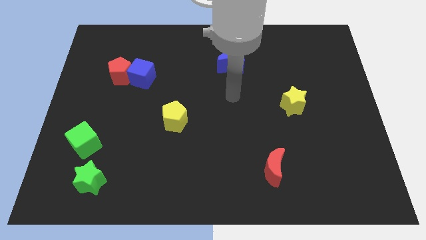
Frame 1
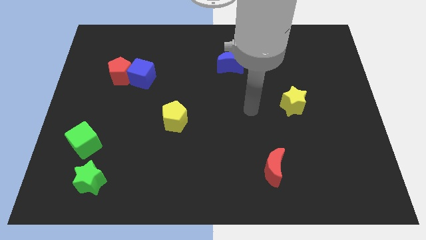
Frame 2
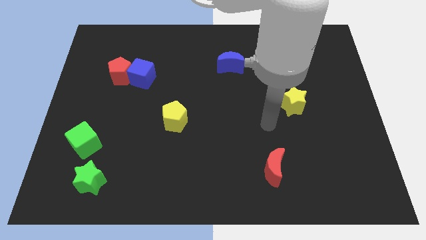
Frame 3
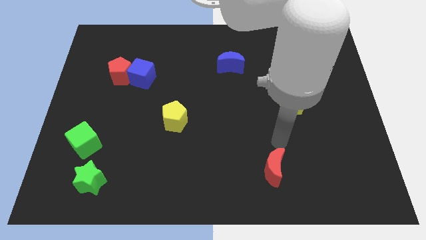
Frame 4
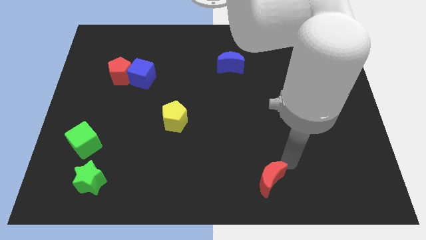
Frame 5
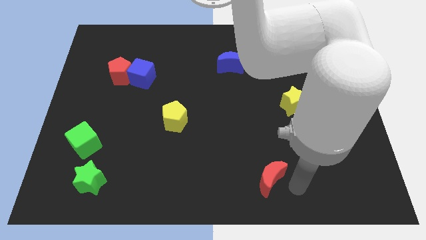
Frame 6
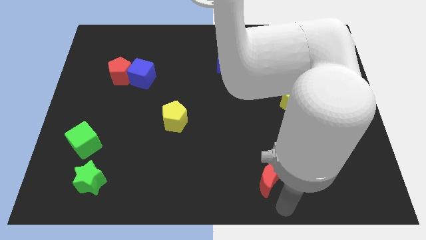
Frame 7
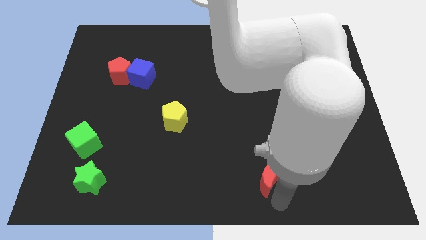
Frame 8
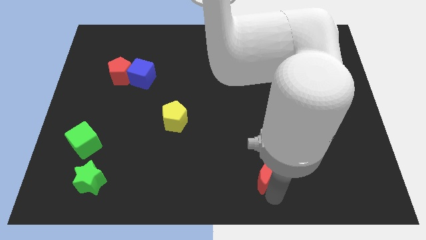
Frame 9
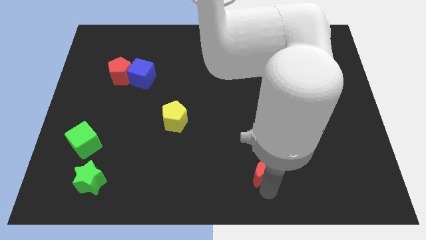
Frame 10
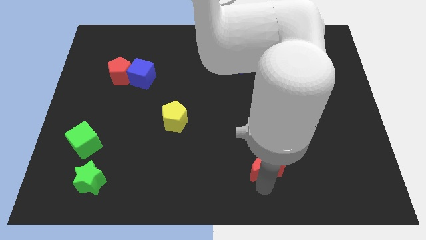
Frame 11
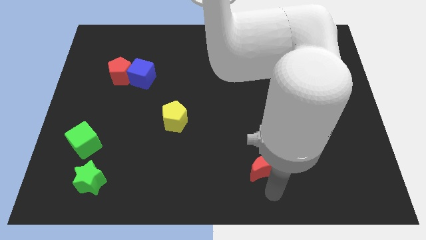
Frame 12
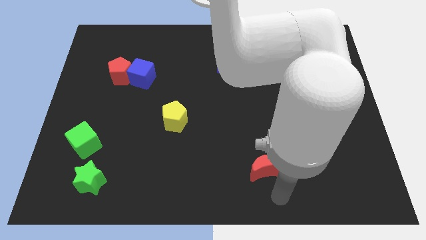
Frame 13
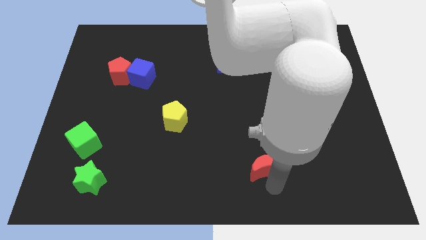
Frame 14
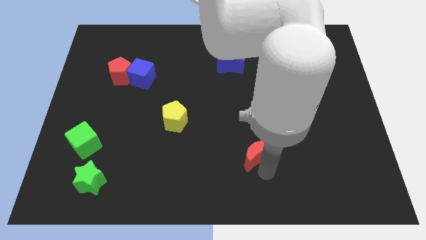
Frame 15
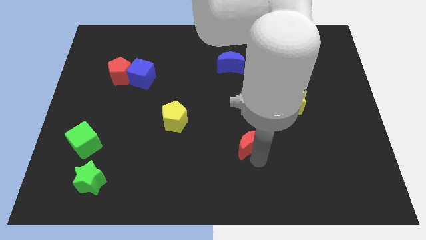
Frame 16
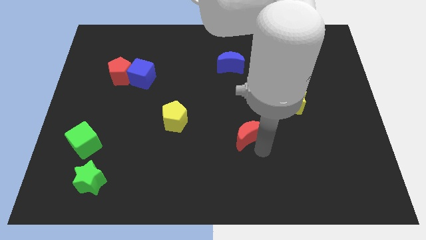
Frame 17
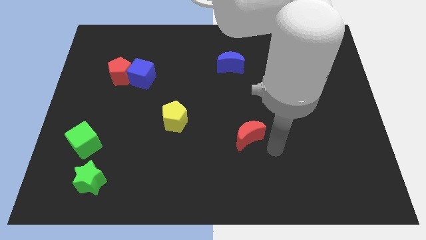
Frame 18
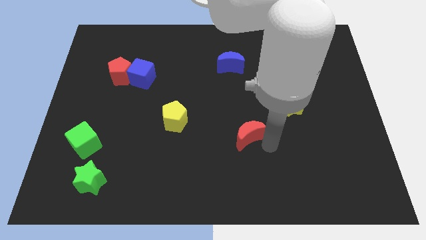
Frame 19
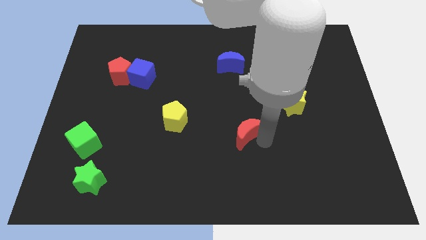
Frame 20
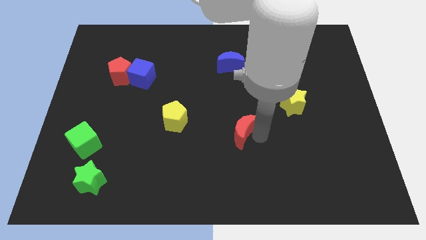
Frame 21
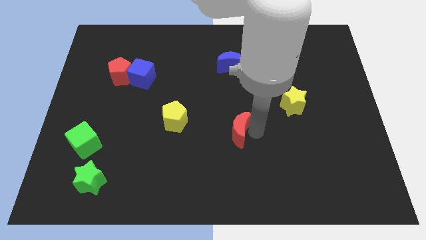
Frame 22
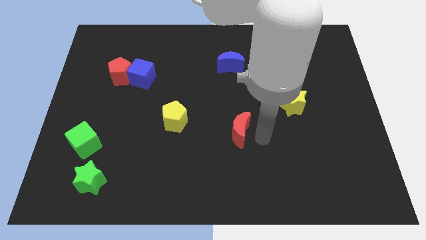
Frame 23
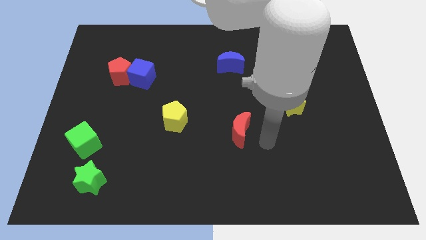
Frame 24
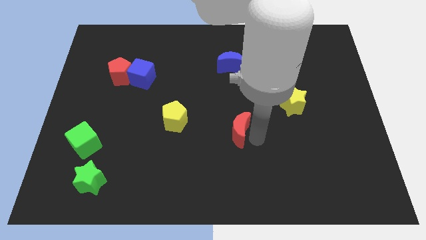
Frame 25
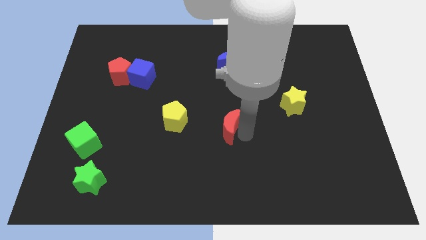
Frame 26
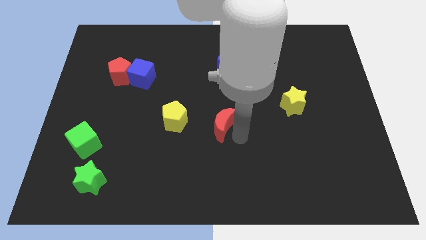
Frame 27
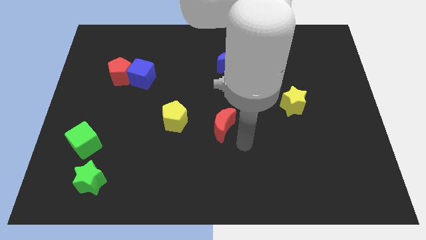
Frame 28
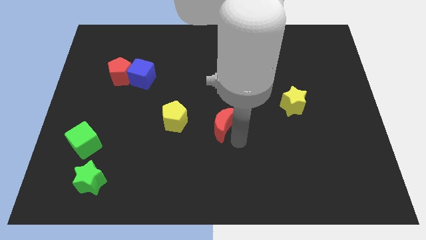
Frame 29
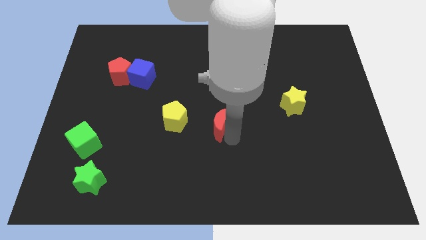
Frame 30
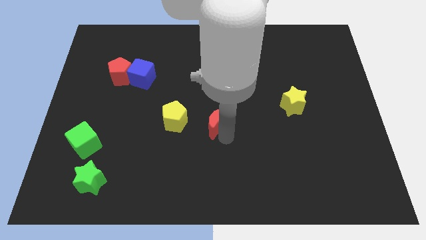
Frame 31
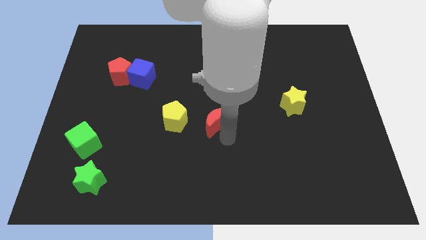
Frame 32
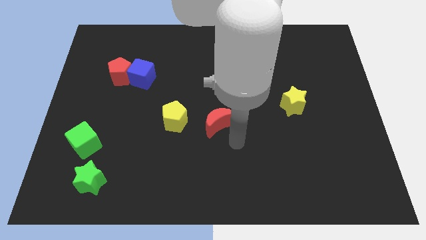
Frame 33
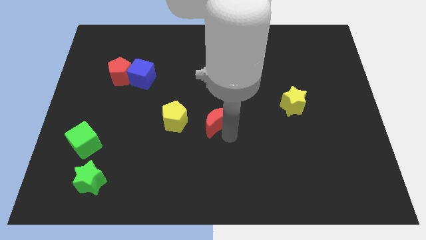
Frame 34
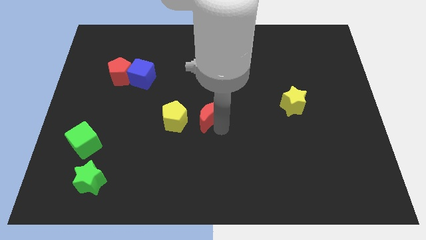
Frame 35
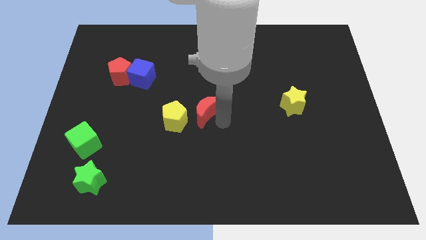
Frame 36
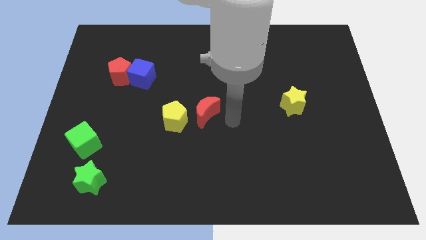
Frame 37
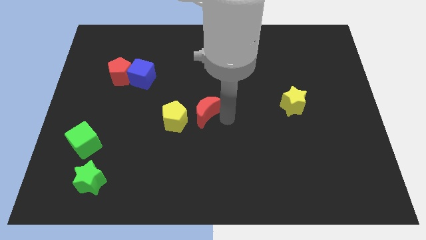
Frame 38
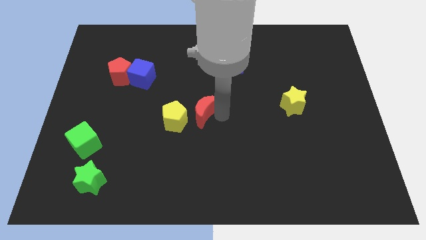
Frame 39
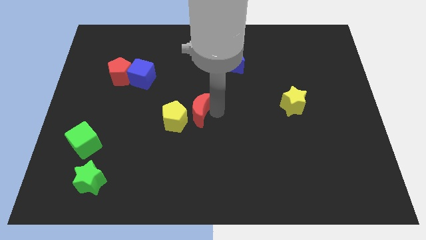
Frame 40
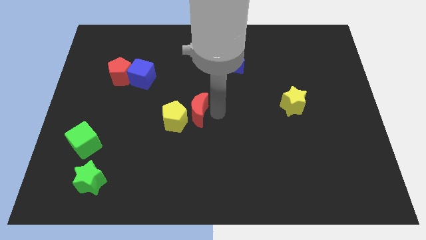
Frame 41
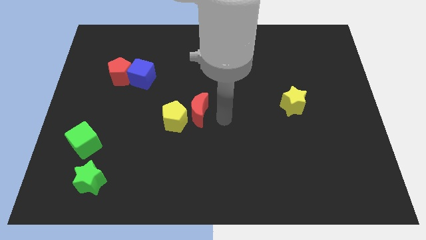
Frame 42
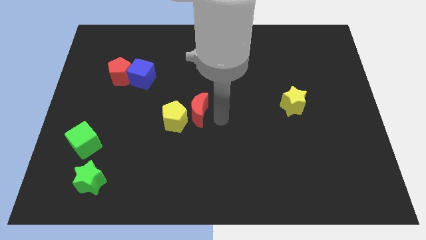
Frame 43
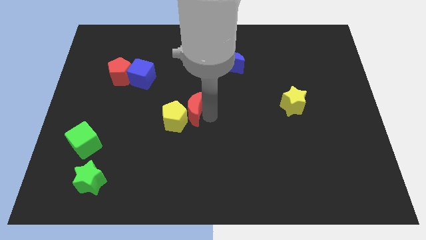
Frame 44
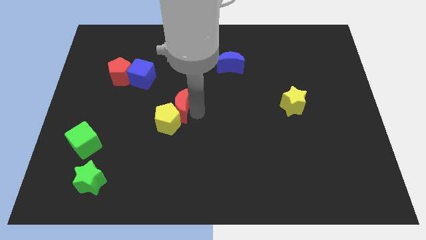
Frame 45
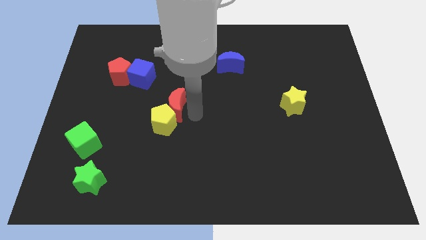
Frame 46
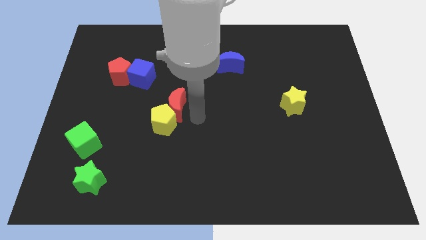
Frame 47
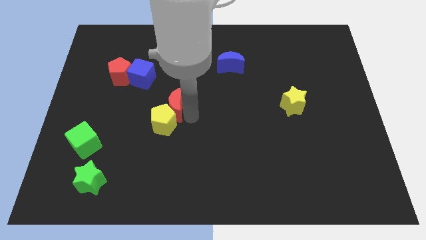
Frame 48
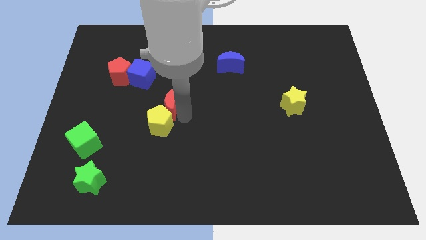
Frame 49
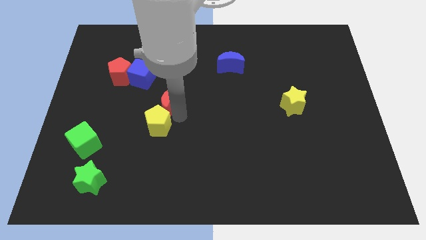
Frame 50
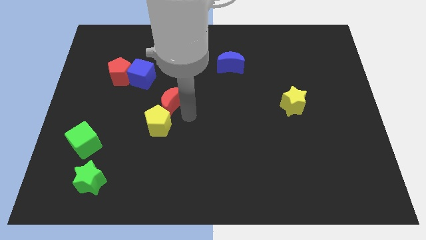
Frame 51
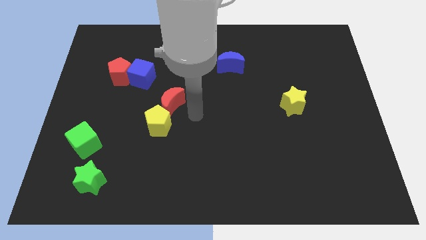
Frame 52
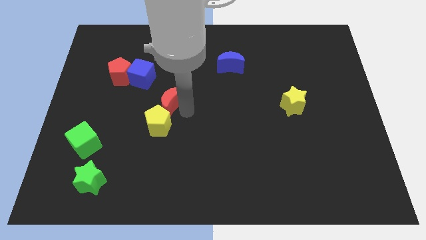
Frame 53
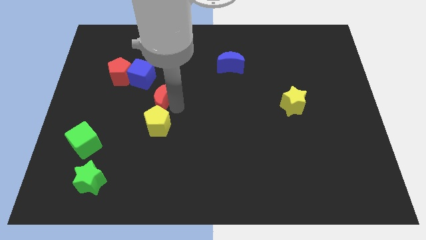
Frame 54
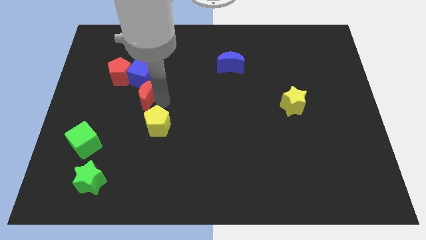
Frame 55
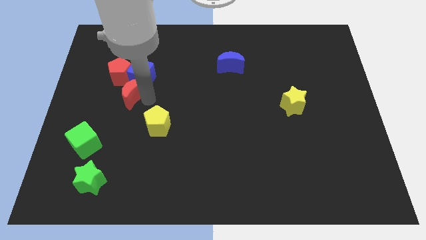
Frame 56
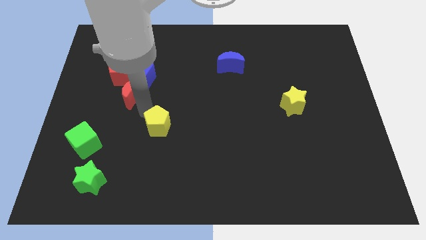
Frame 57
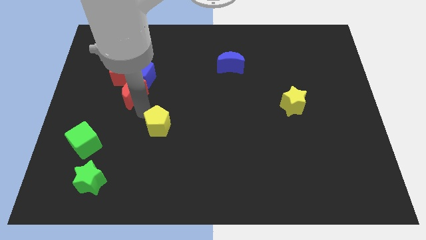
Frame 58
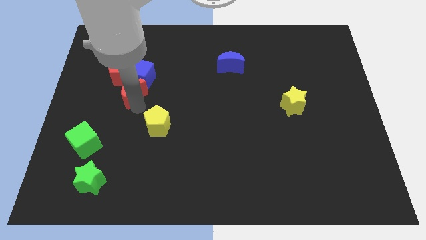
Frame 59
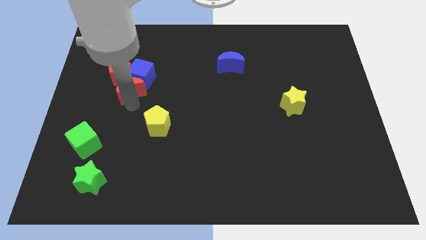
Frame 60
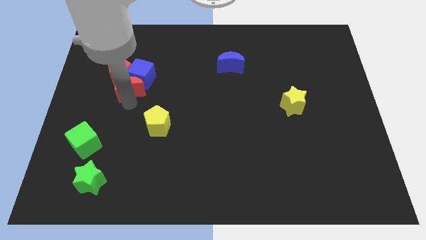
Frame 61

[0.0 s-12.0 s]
push the red moon close to the red pentagon

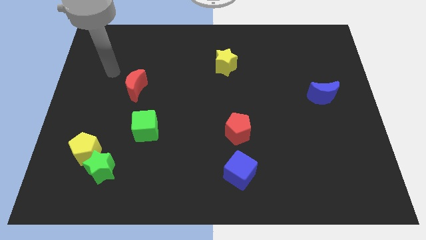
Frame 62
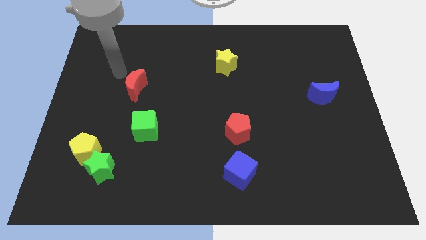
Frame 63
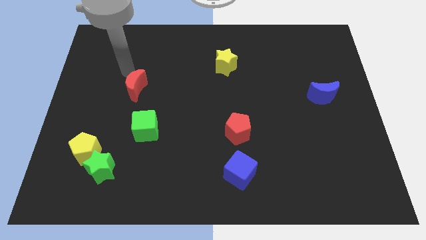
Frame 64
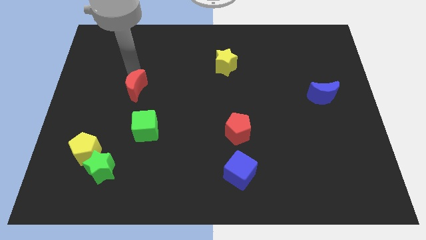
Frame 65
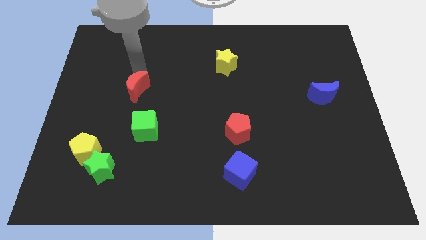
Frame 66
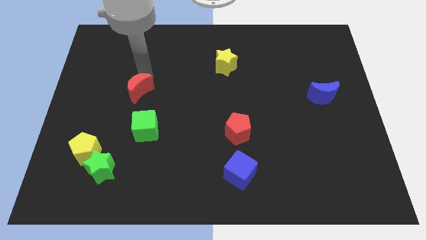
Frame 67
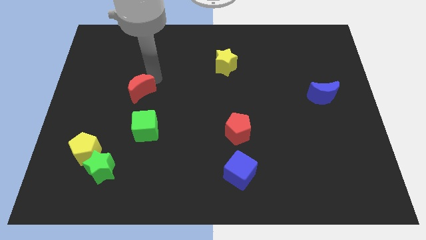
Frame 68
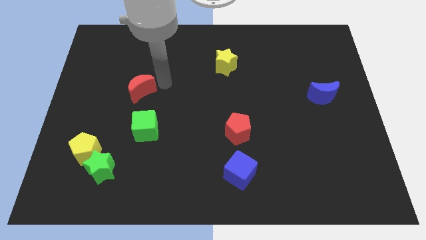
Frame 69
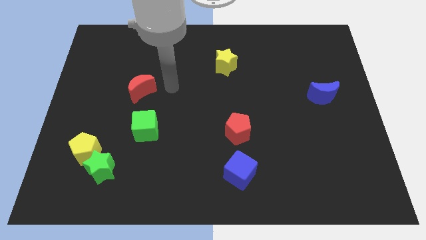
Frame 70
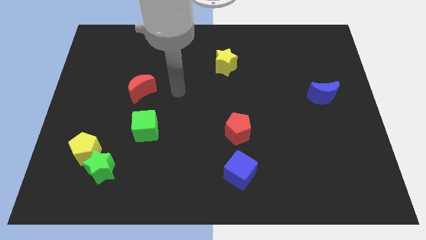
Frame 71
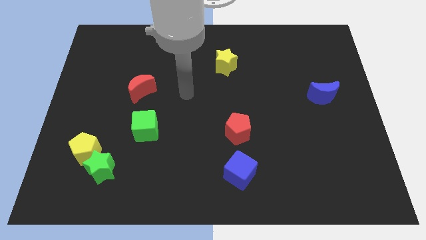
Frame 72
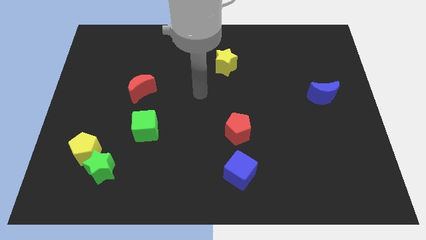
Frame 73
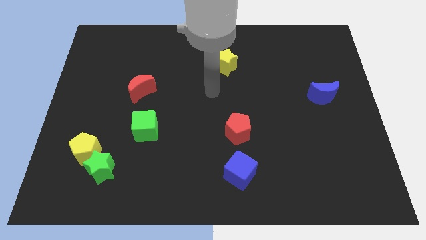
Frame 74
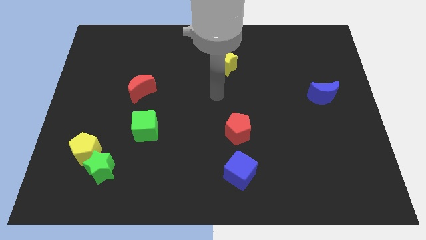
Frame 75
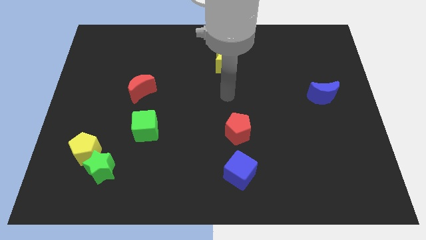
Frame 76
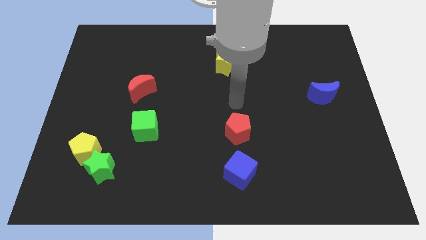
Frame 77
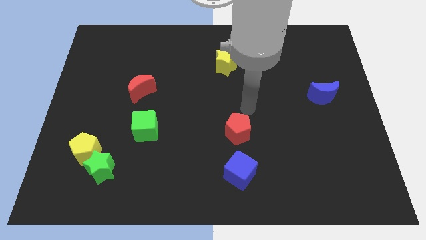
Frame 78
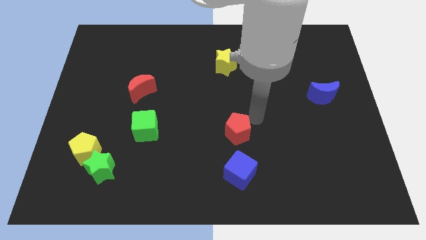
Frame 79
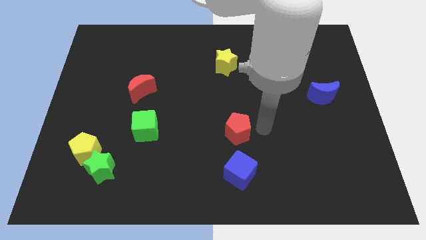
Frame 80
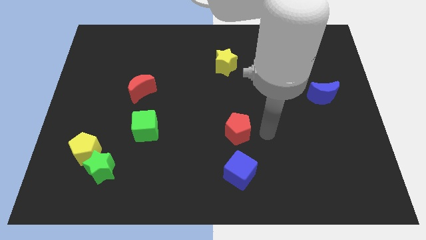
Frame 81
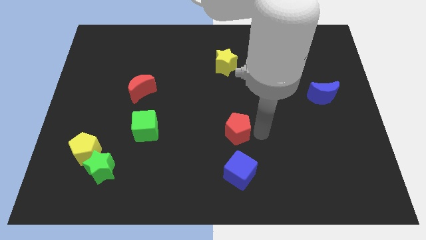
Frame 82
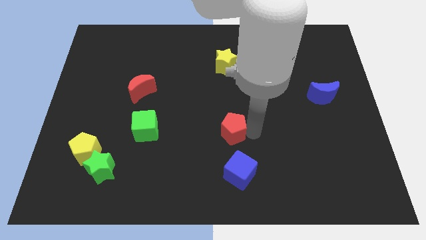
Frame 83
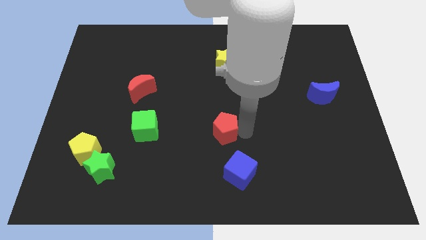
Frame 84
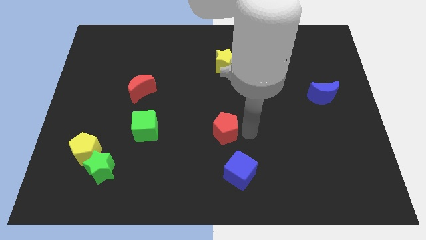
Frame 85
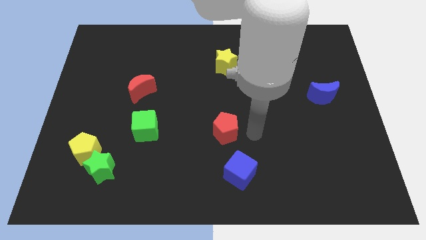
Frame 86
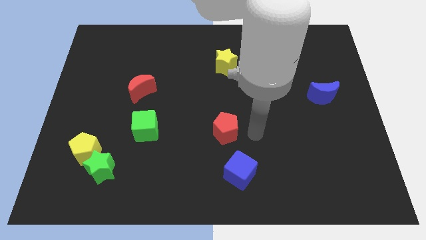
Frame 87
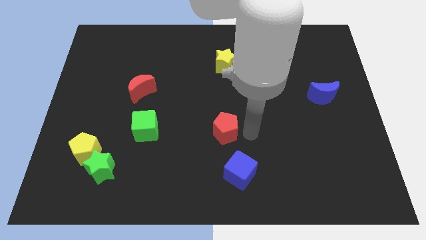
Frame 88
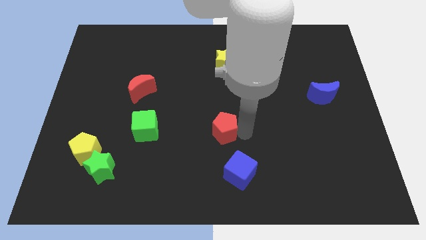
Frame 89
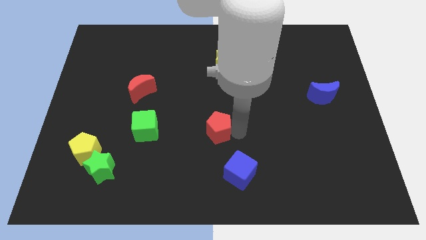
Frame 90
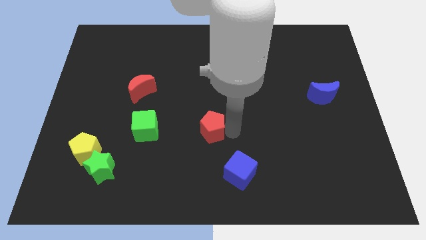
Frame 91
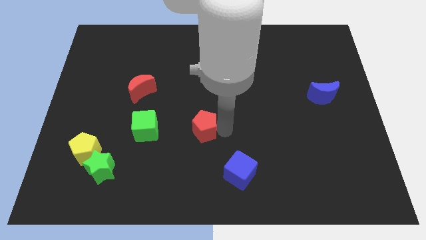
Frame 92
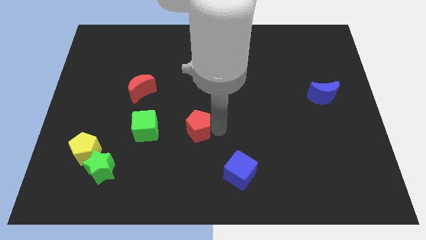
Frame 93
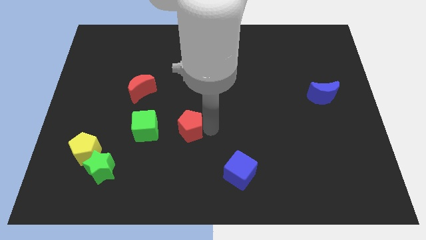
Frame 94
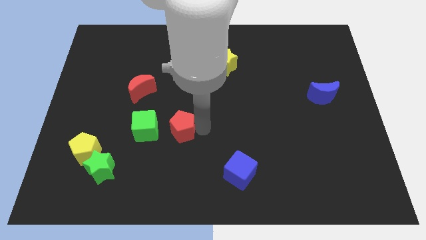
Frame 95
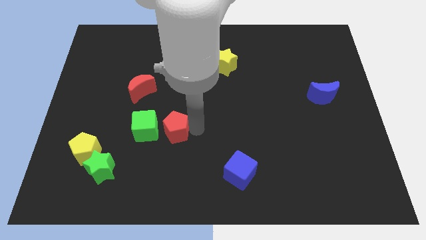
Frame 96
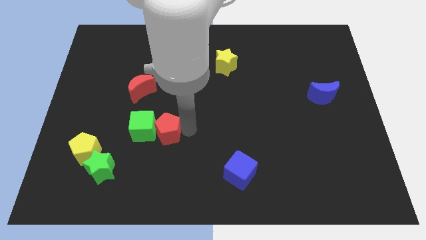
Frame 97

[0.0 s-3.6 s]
move the red pentagon close to the green cube
